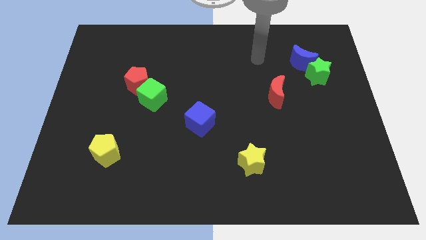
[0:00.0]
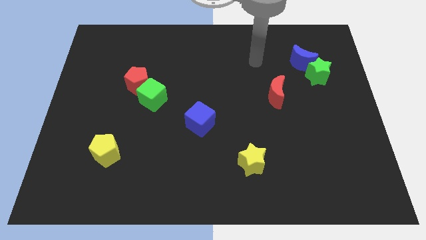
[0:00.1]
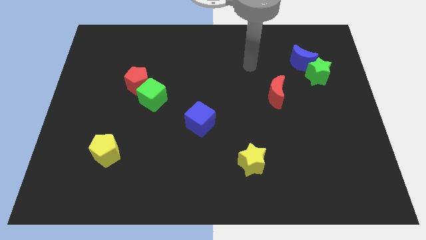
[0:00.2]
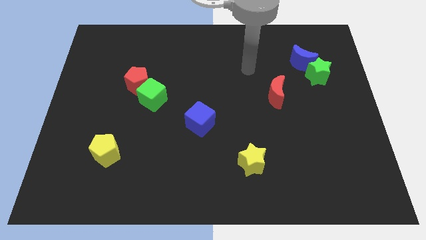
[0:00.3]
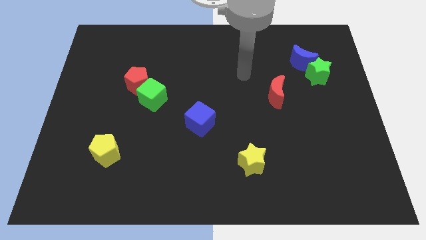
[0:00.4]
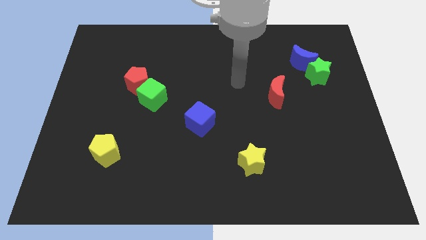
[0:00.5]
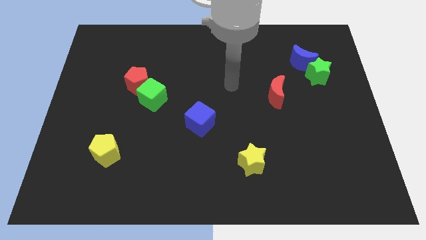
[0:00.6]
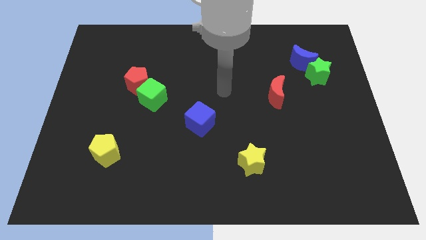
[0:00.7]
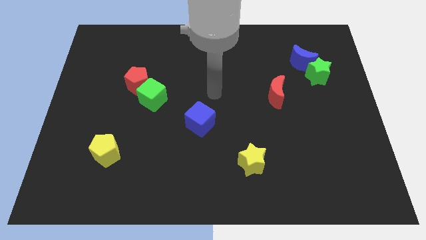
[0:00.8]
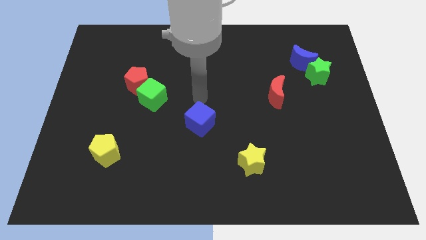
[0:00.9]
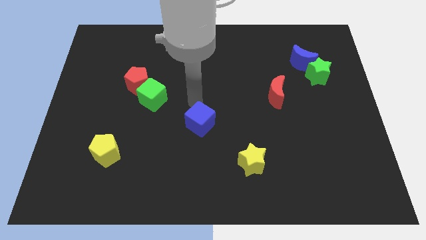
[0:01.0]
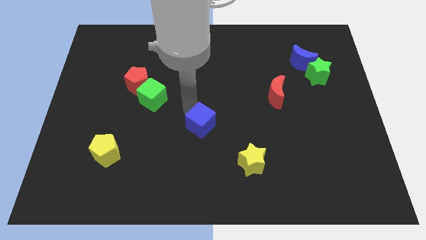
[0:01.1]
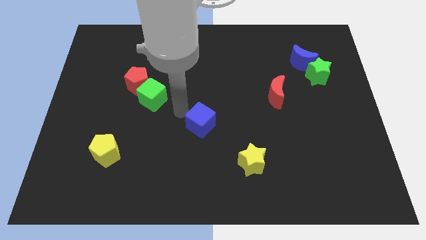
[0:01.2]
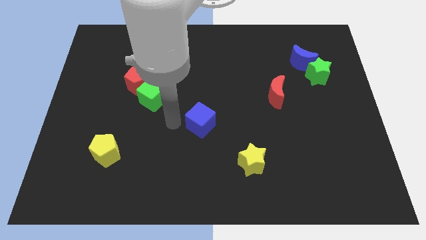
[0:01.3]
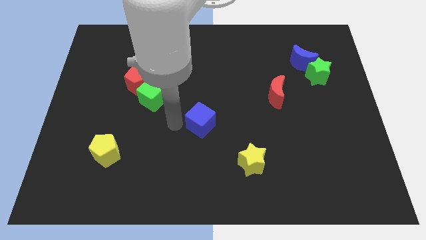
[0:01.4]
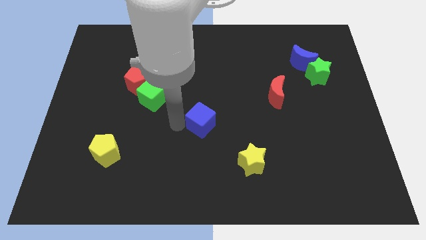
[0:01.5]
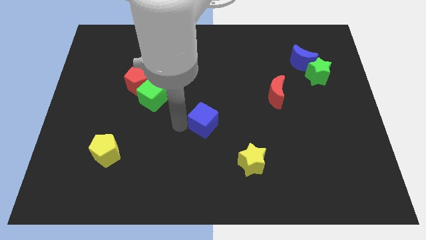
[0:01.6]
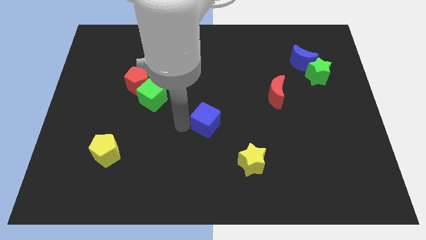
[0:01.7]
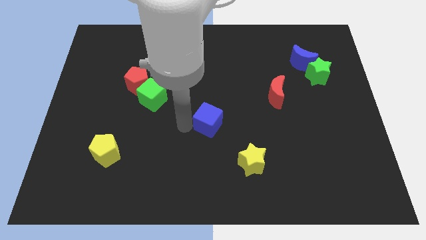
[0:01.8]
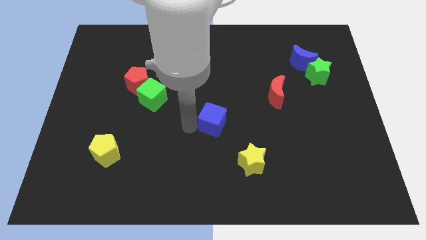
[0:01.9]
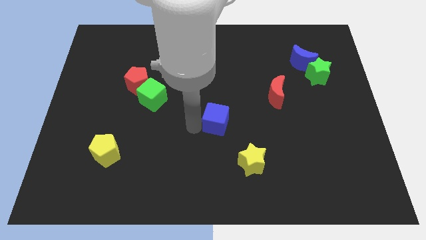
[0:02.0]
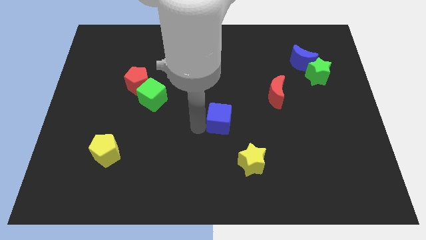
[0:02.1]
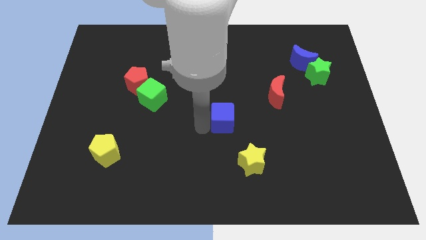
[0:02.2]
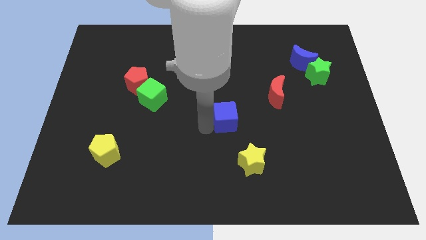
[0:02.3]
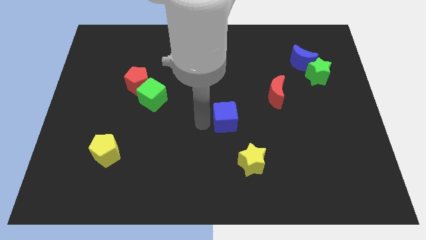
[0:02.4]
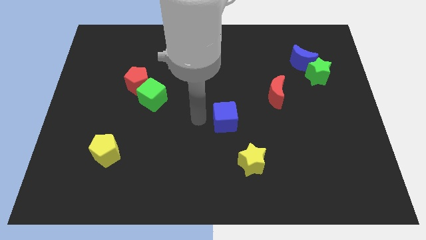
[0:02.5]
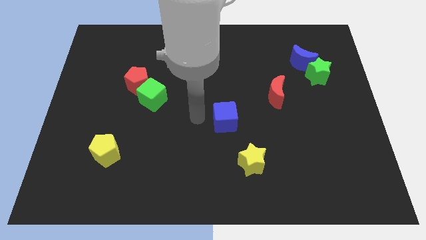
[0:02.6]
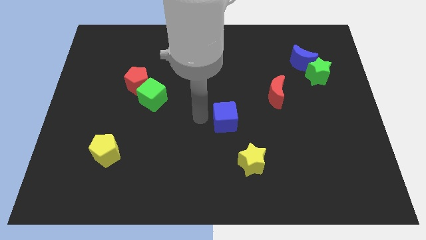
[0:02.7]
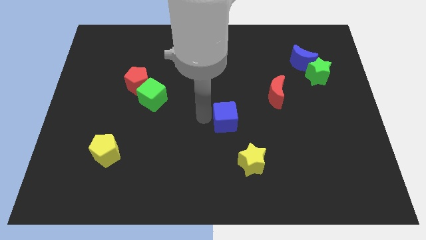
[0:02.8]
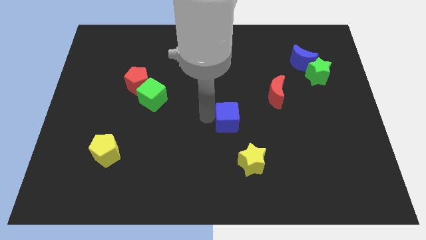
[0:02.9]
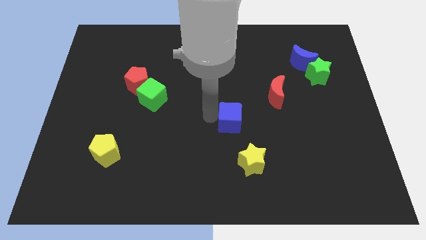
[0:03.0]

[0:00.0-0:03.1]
slide the blue cube right slightly

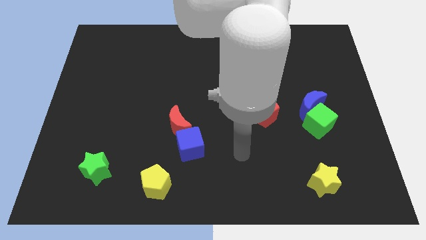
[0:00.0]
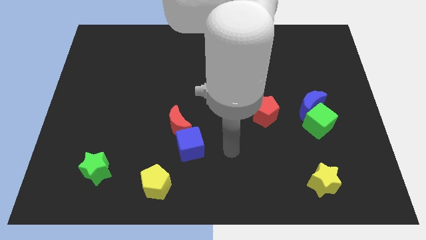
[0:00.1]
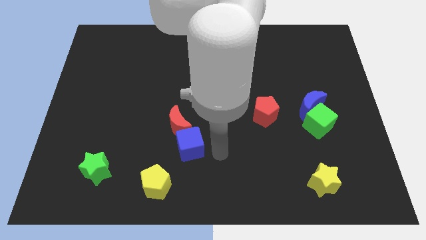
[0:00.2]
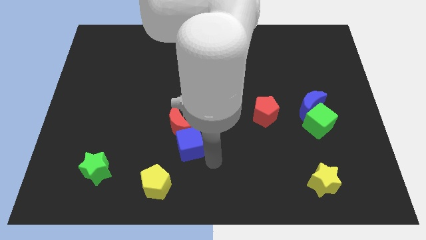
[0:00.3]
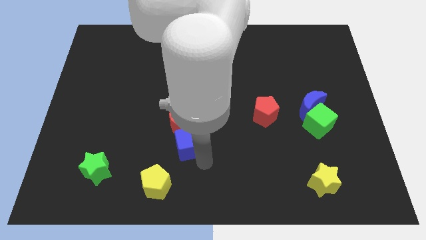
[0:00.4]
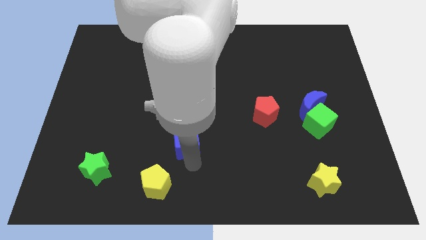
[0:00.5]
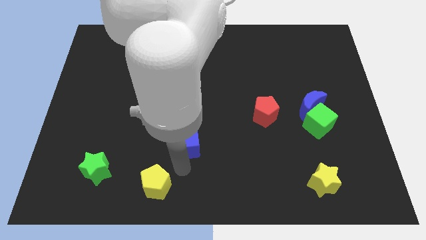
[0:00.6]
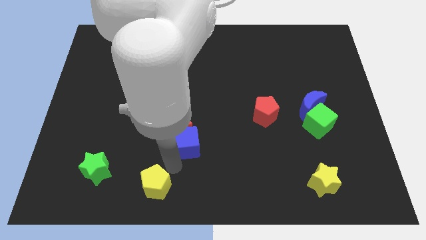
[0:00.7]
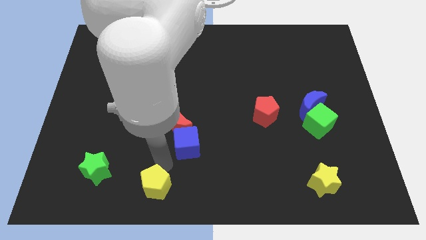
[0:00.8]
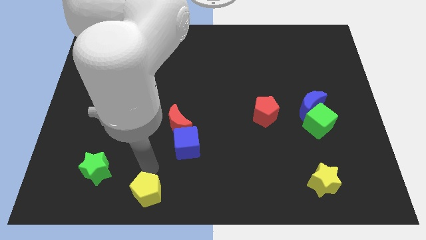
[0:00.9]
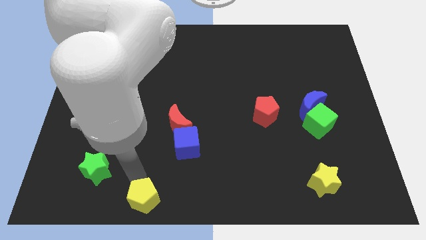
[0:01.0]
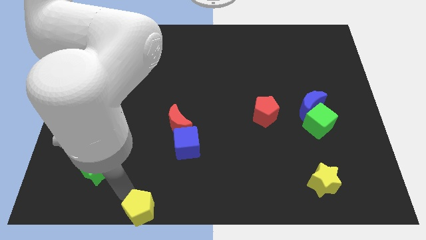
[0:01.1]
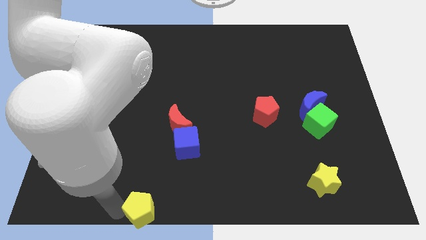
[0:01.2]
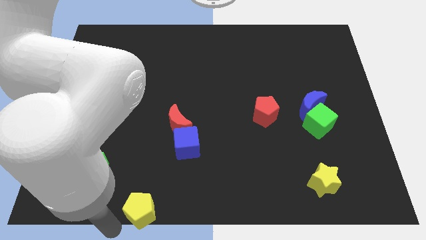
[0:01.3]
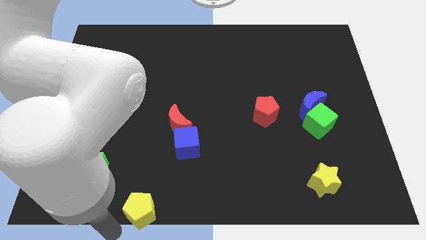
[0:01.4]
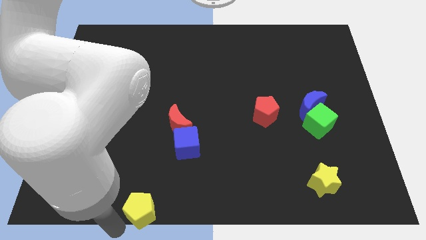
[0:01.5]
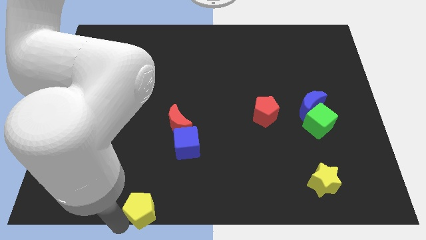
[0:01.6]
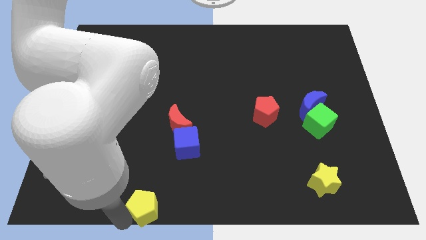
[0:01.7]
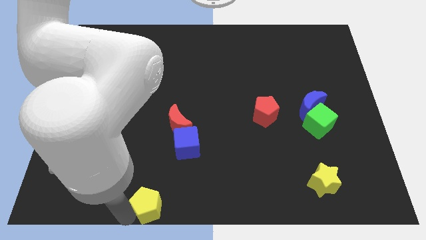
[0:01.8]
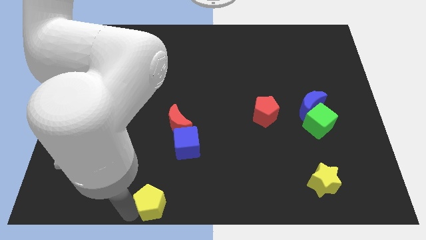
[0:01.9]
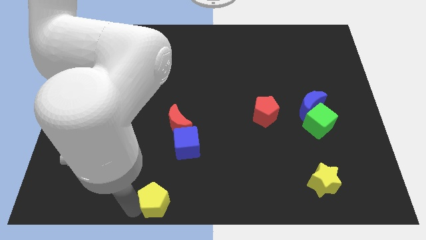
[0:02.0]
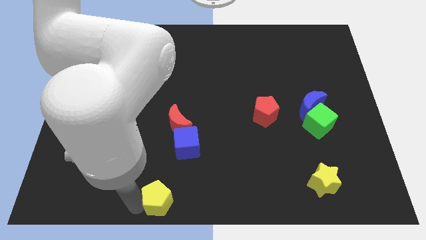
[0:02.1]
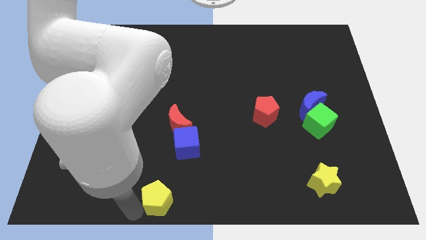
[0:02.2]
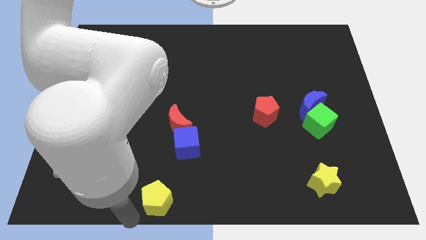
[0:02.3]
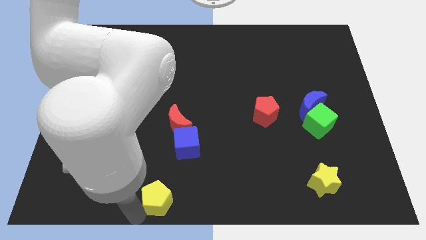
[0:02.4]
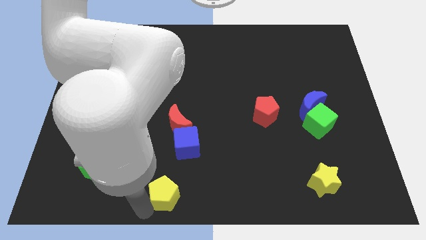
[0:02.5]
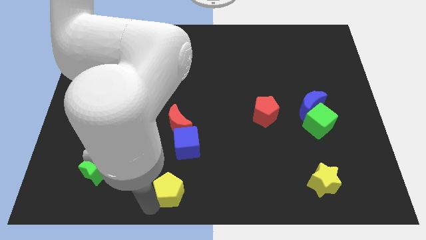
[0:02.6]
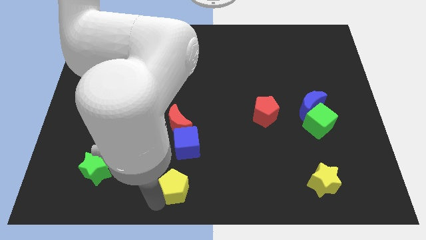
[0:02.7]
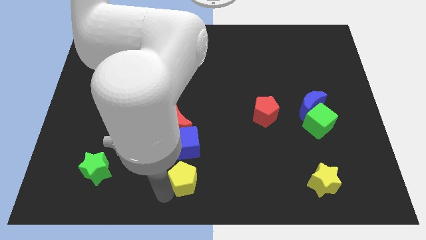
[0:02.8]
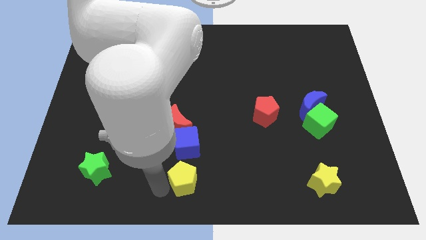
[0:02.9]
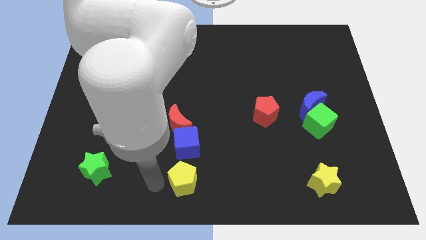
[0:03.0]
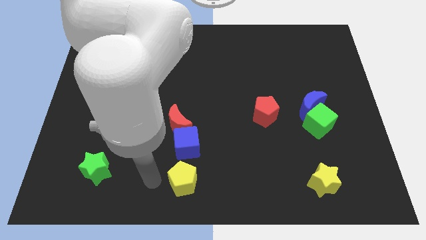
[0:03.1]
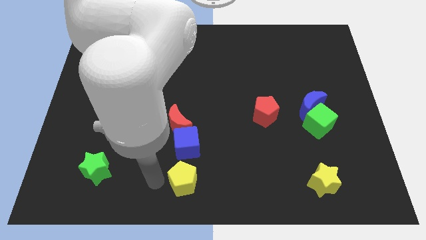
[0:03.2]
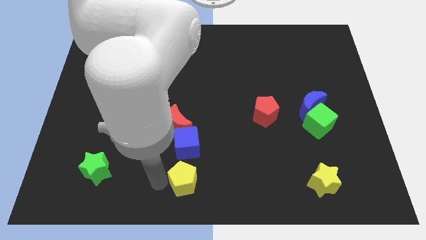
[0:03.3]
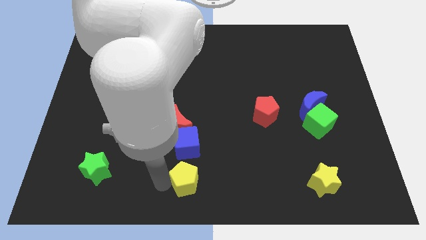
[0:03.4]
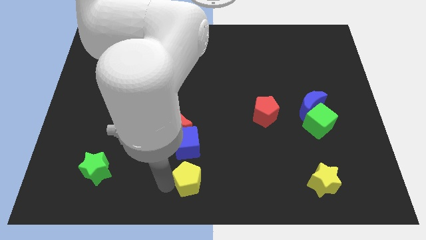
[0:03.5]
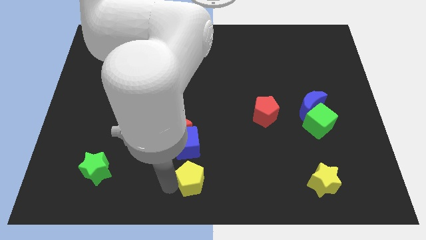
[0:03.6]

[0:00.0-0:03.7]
push the yellow pentagon right somewhat

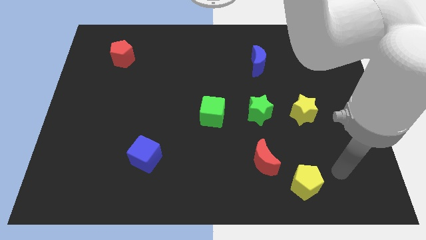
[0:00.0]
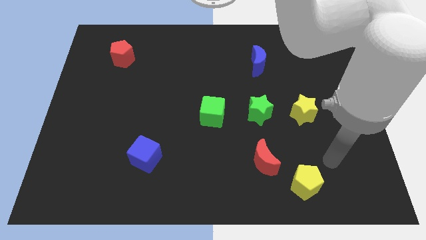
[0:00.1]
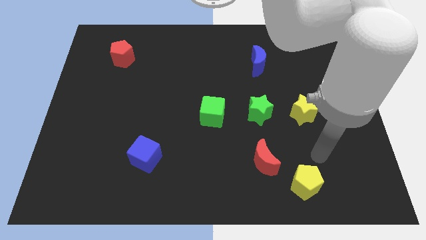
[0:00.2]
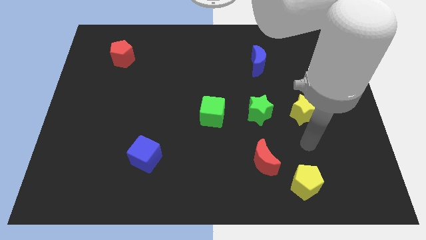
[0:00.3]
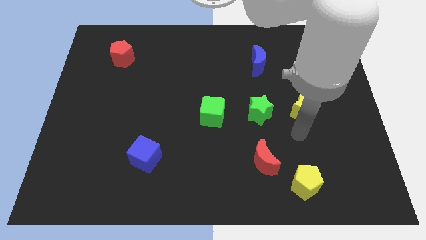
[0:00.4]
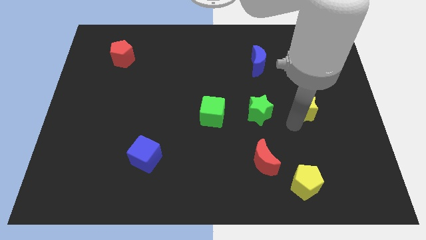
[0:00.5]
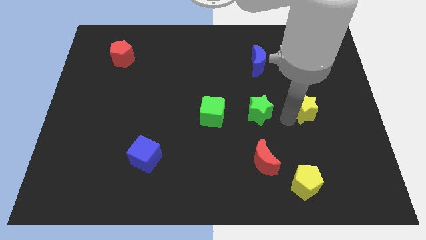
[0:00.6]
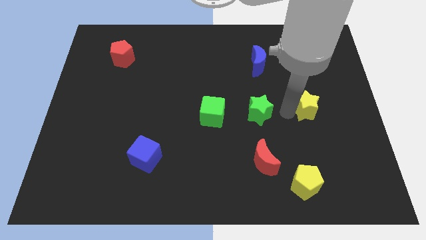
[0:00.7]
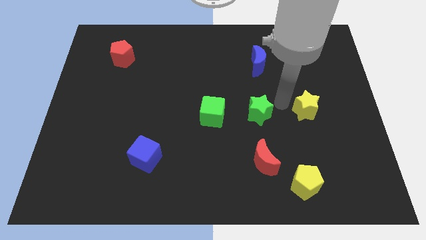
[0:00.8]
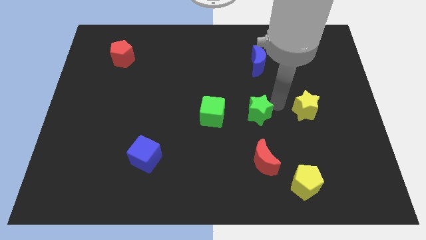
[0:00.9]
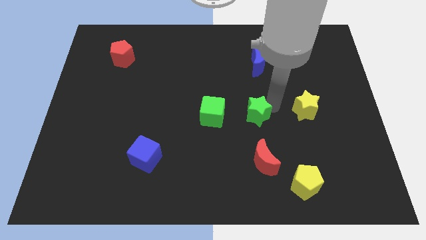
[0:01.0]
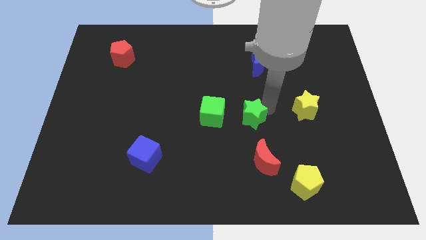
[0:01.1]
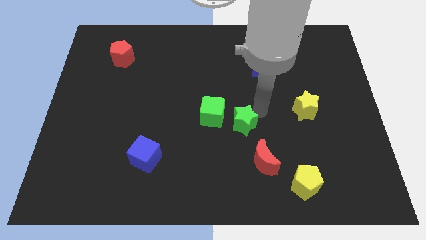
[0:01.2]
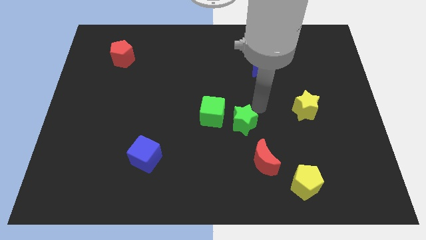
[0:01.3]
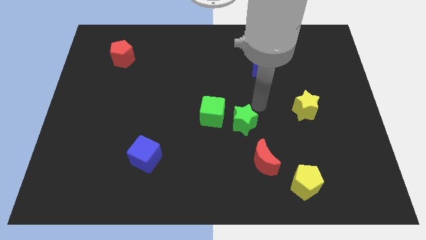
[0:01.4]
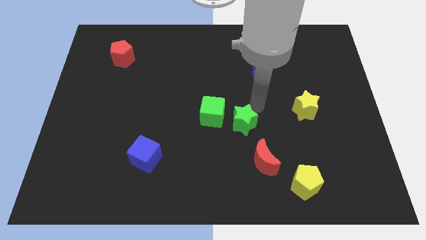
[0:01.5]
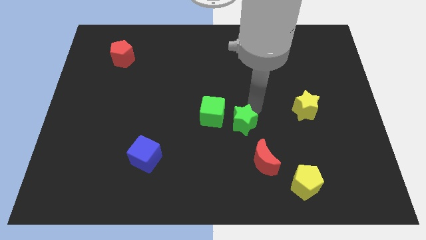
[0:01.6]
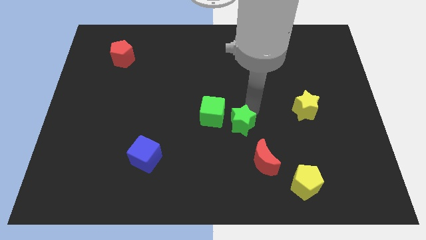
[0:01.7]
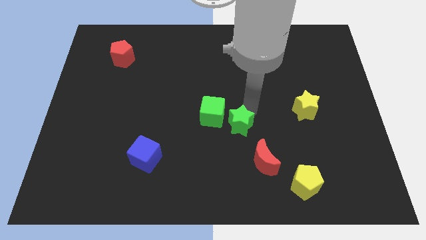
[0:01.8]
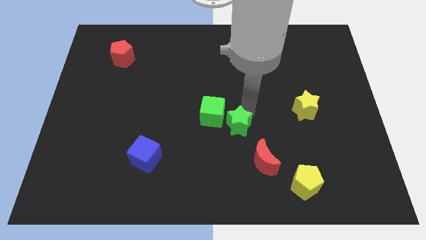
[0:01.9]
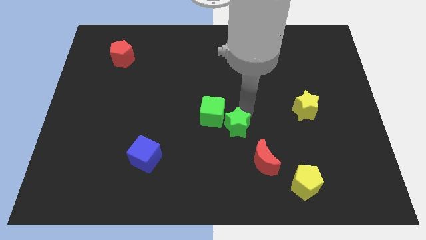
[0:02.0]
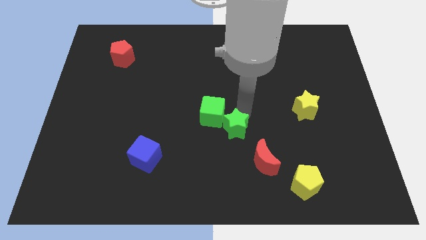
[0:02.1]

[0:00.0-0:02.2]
move the green star downwards and then left slightly
